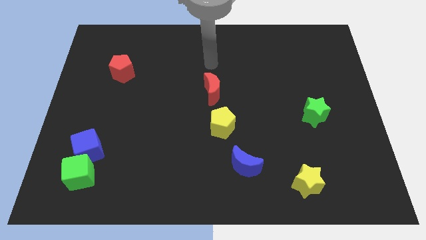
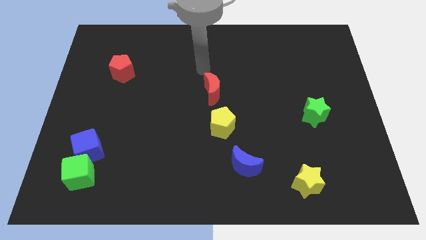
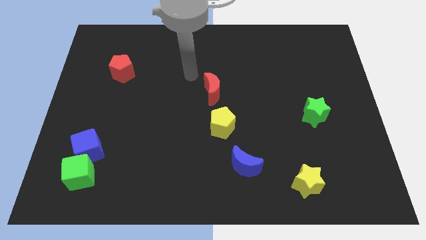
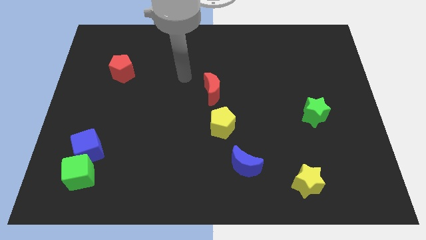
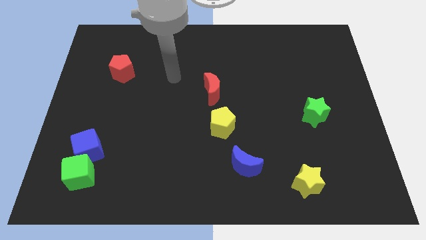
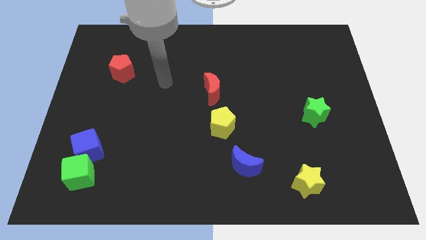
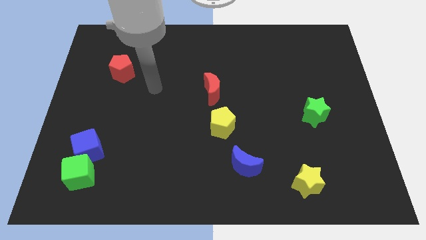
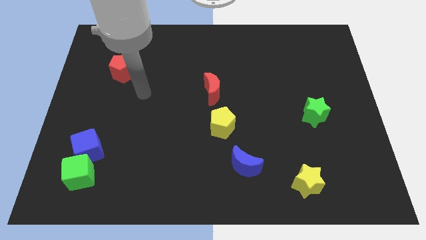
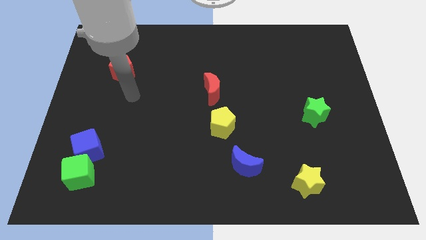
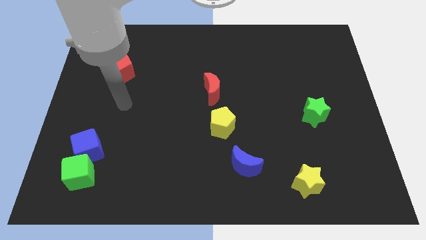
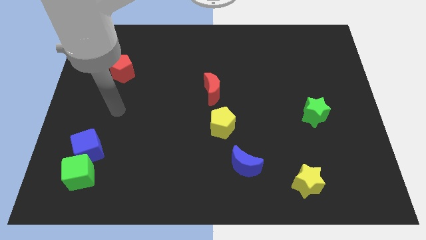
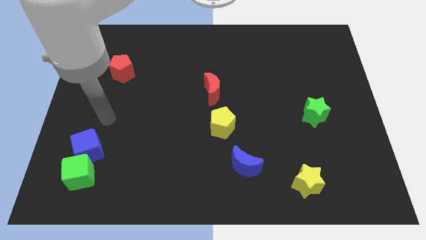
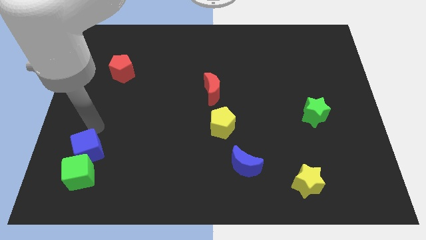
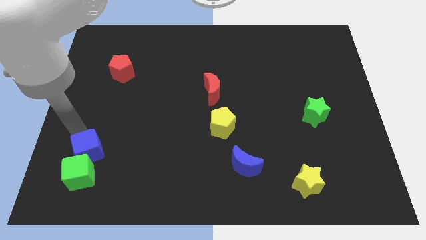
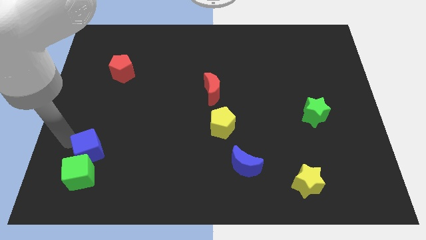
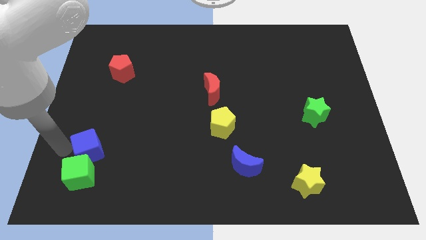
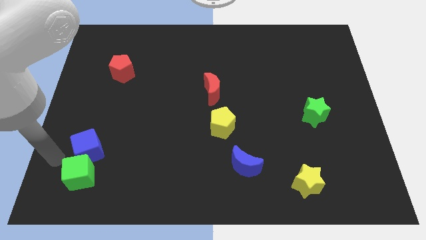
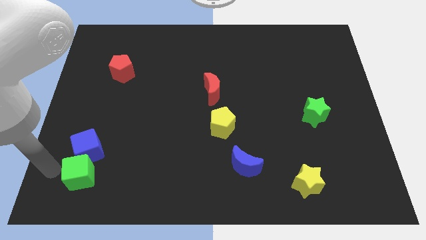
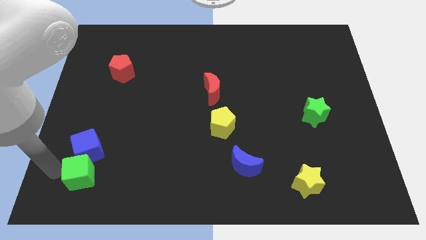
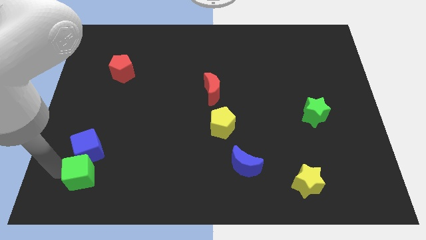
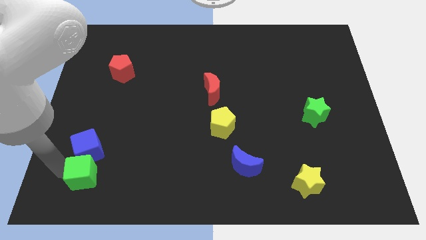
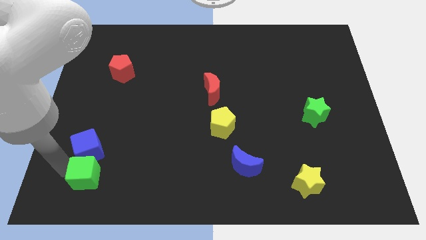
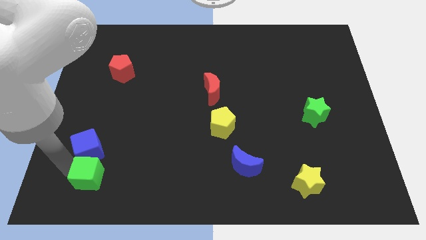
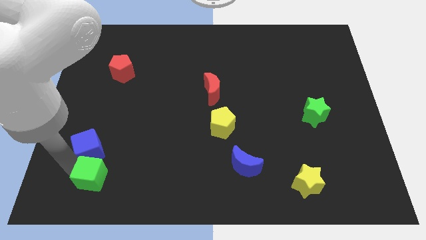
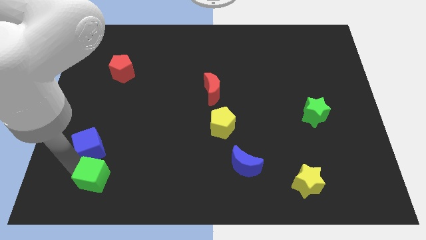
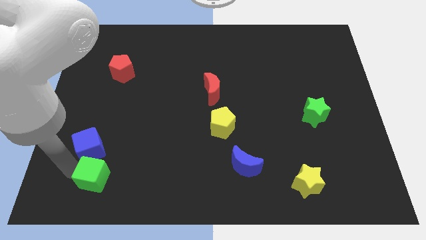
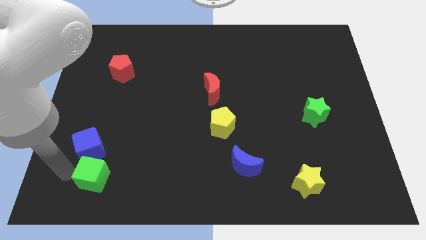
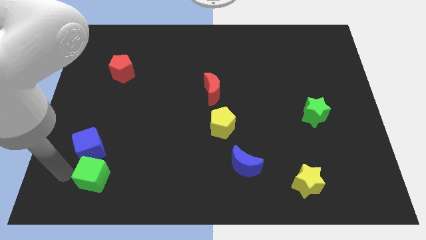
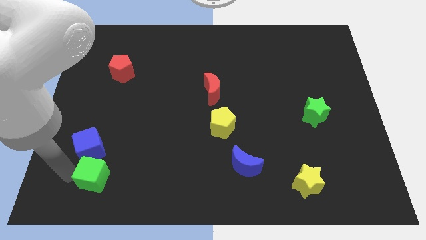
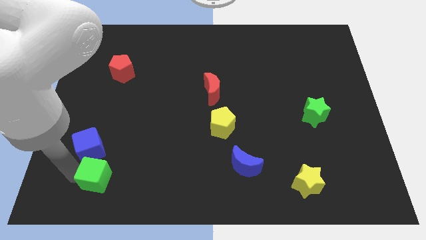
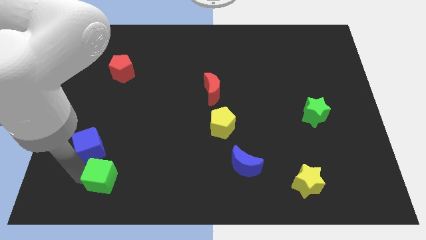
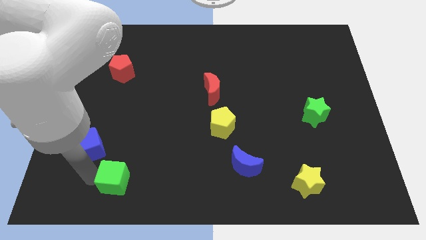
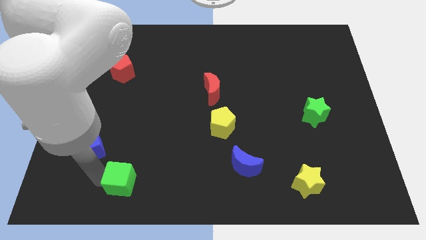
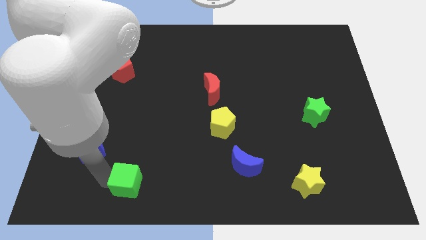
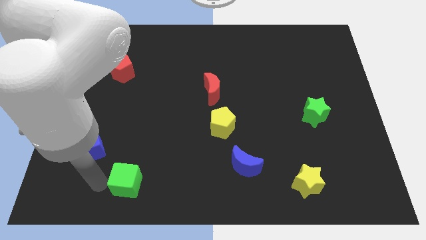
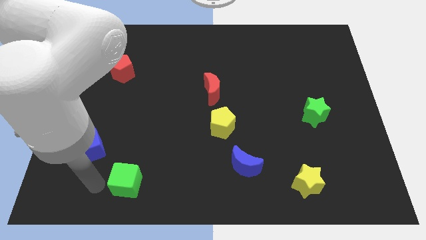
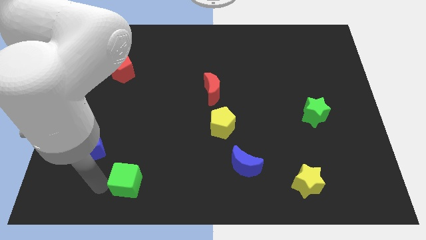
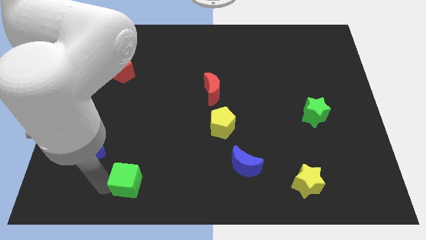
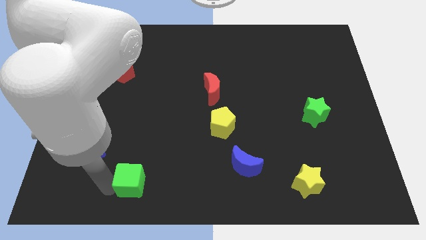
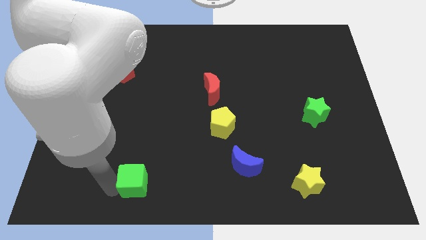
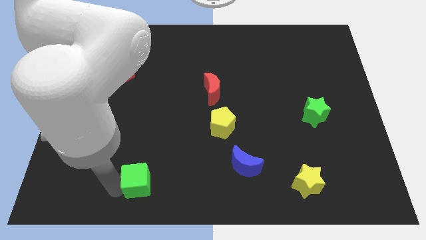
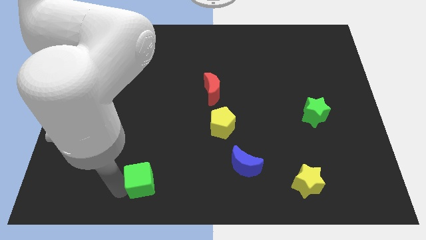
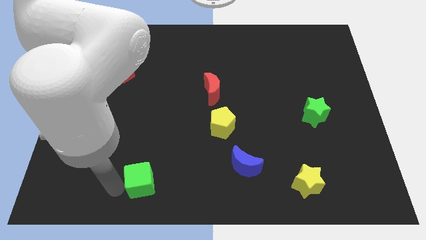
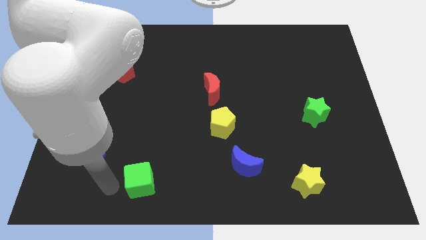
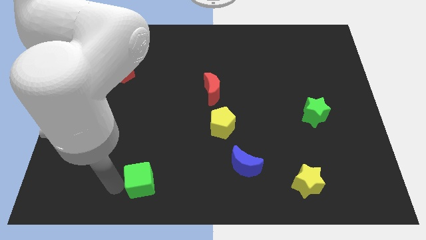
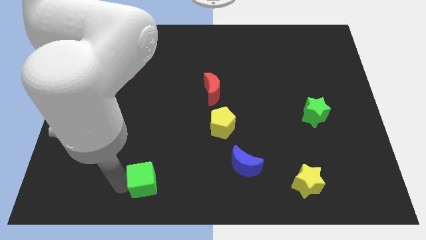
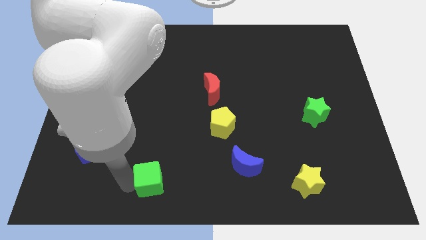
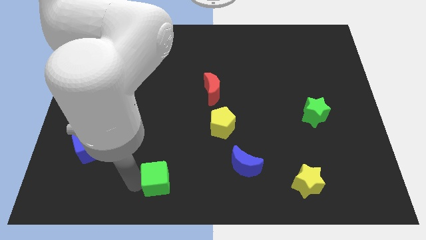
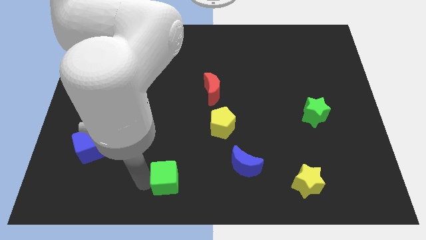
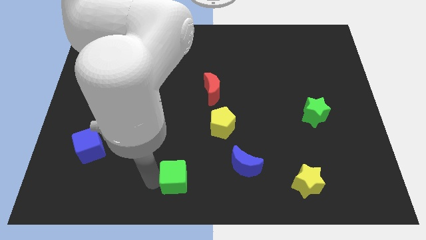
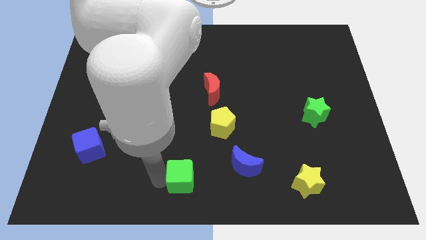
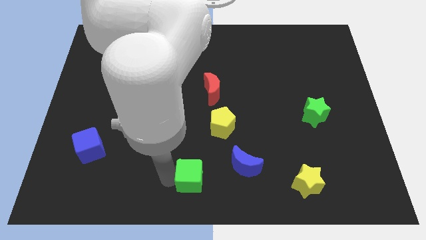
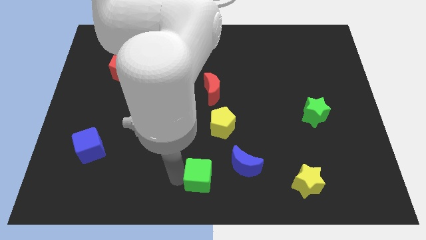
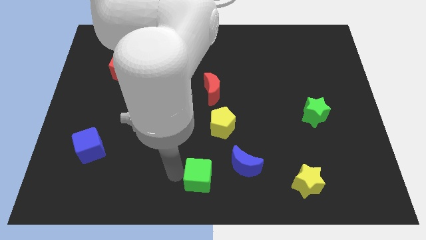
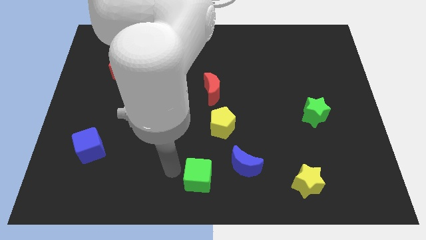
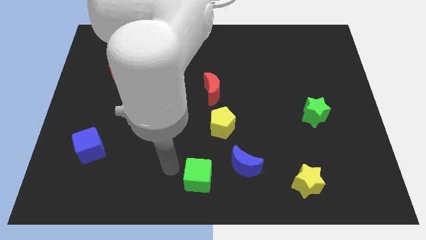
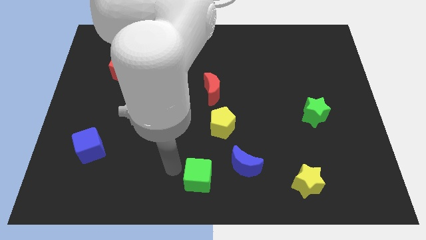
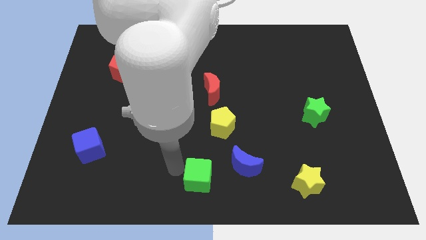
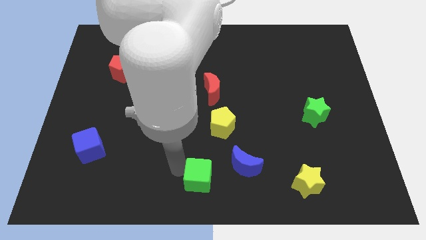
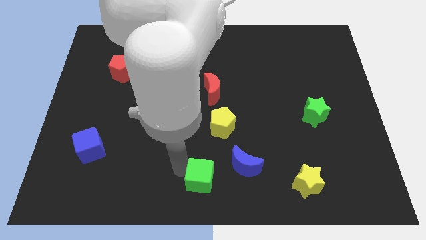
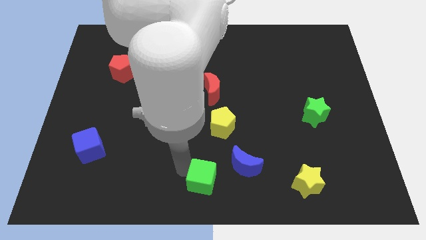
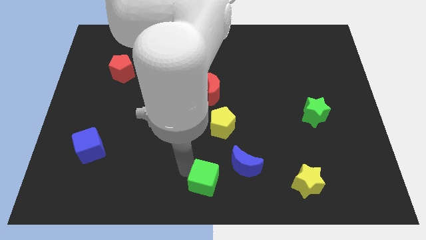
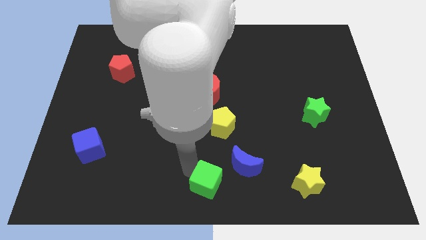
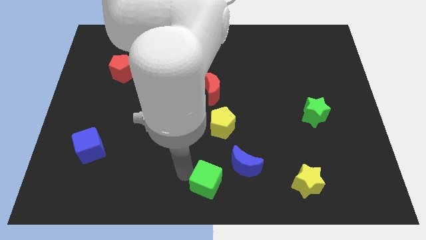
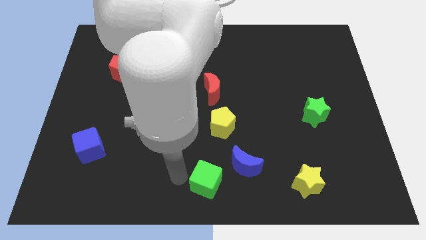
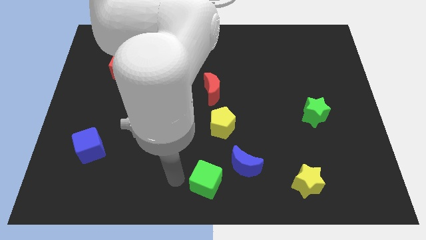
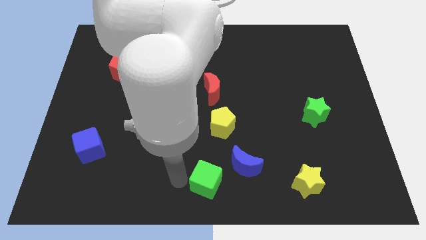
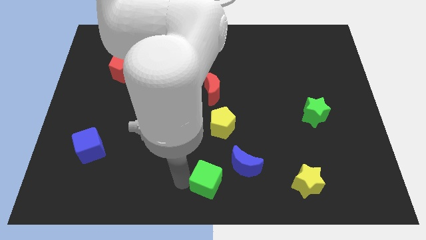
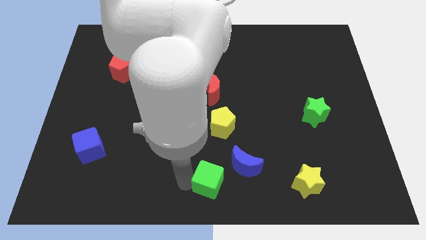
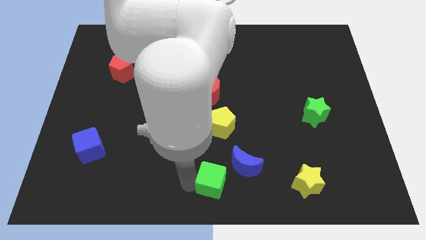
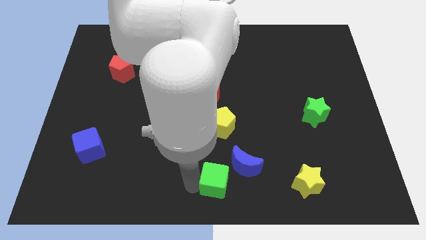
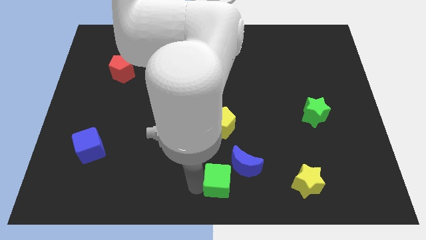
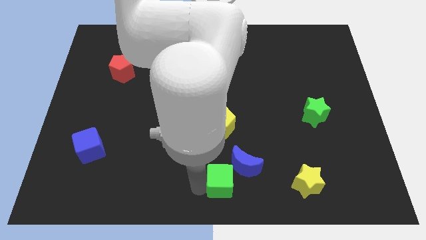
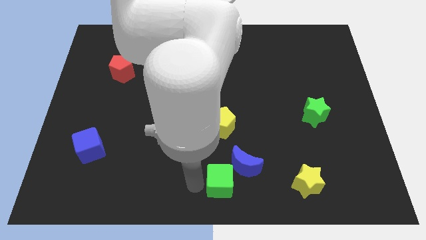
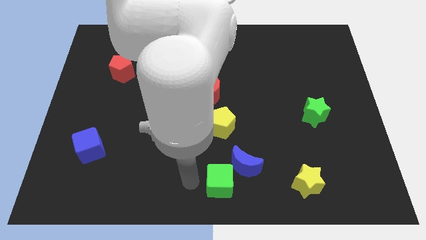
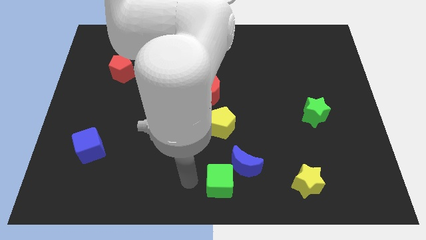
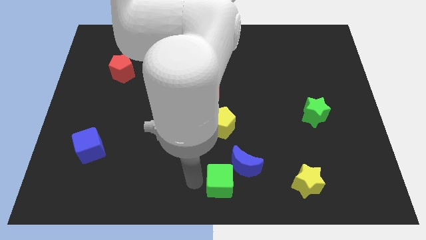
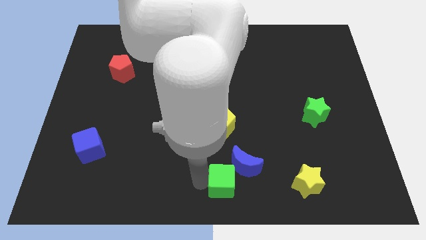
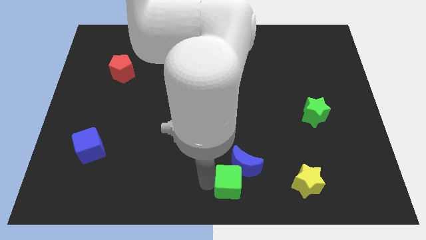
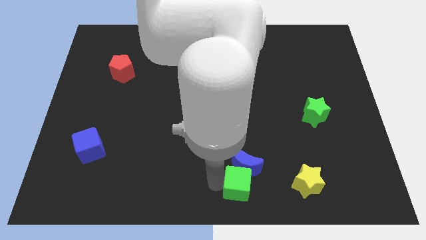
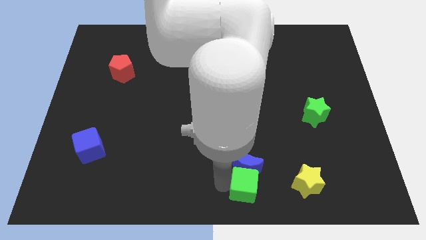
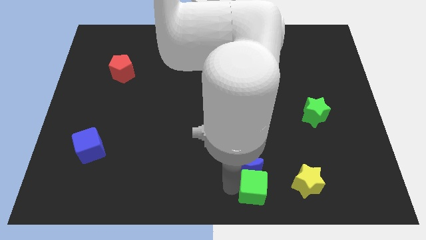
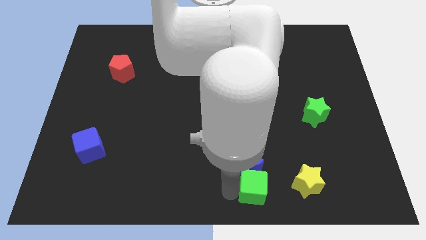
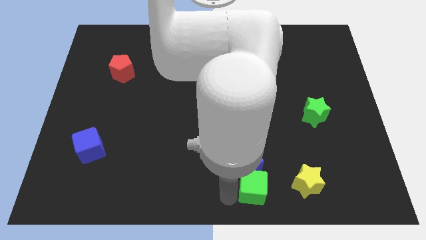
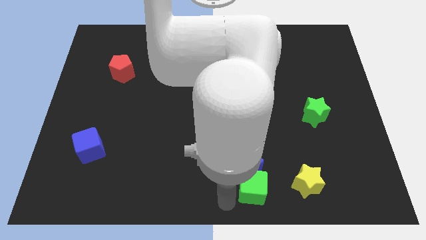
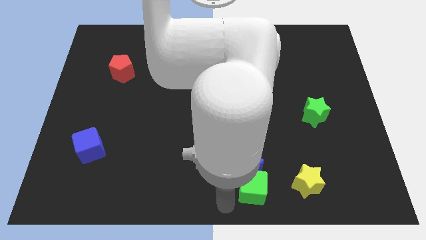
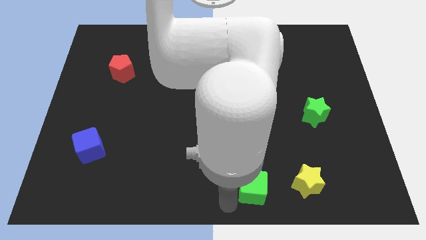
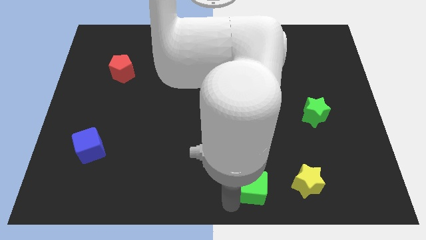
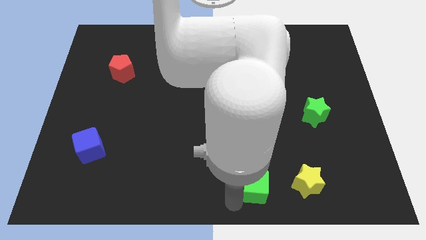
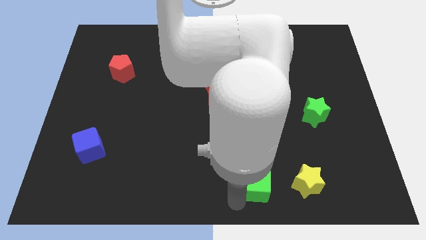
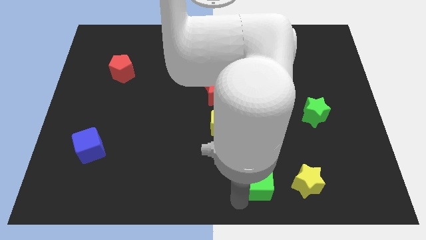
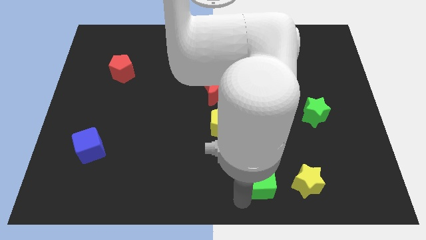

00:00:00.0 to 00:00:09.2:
push the green cube to the right of the blue moon
